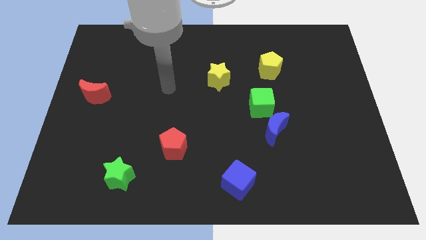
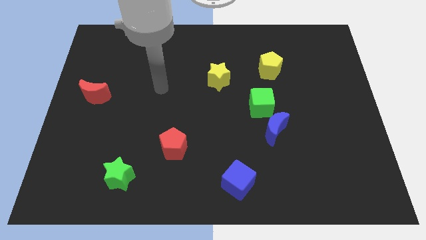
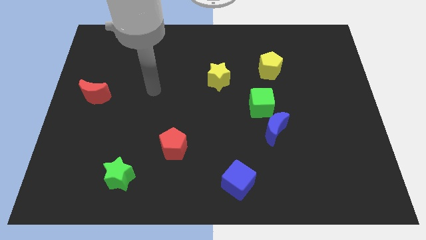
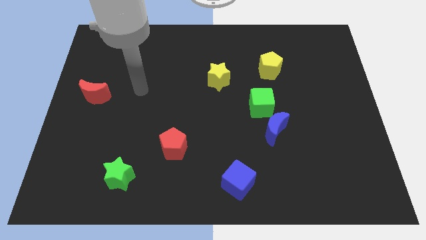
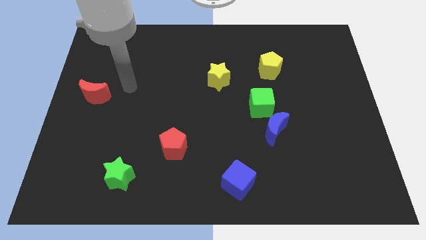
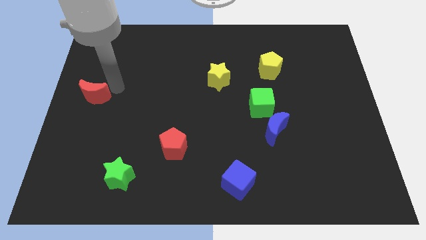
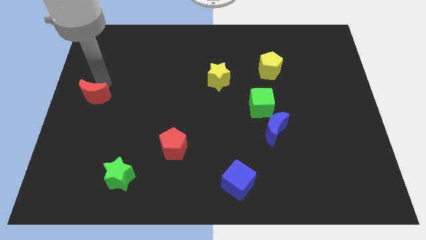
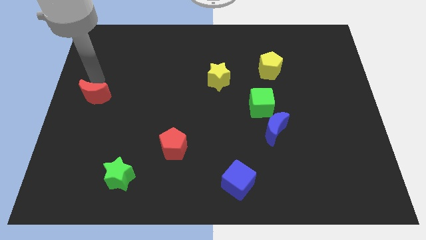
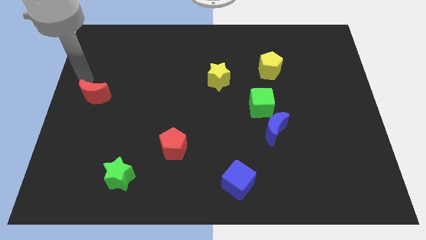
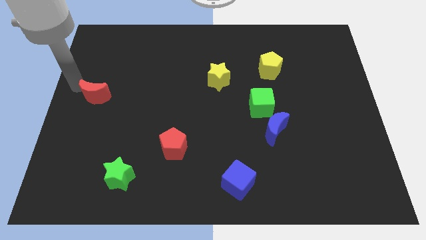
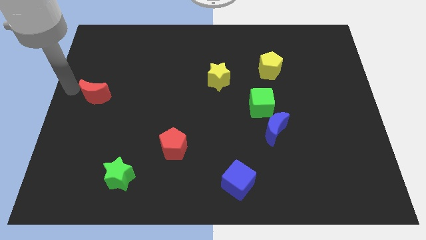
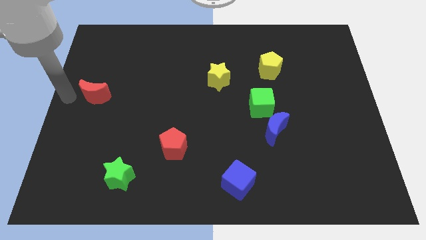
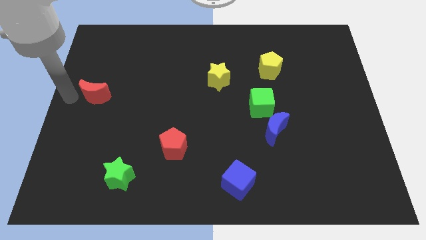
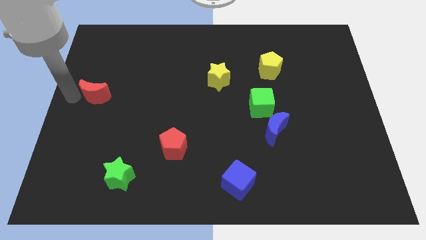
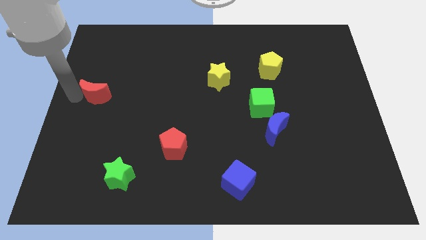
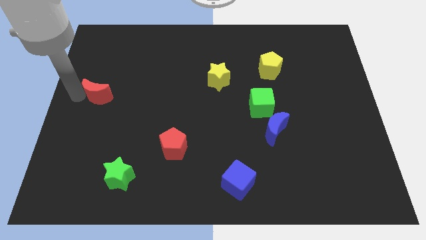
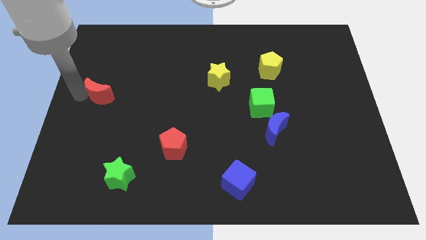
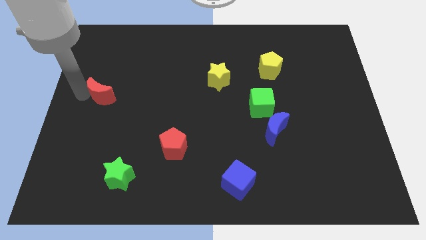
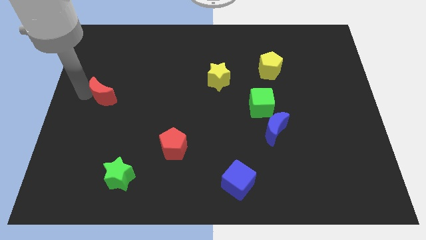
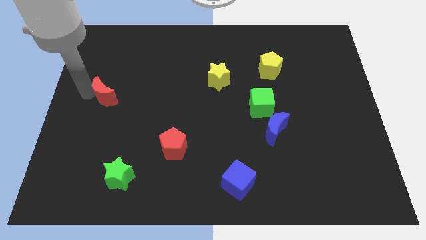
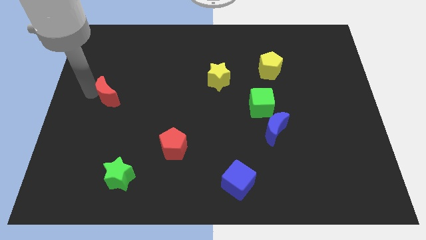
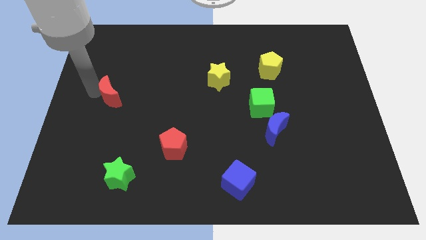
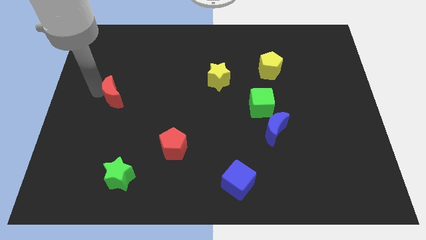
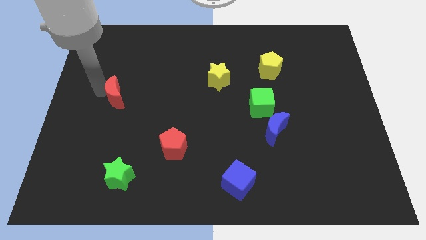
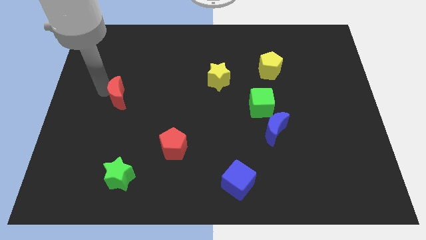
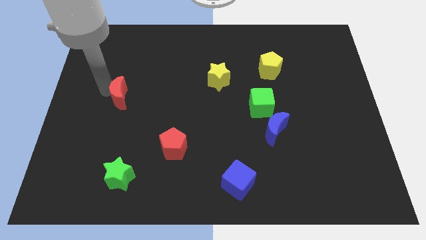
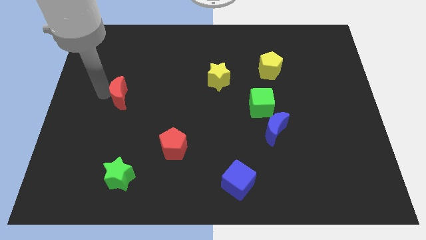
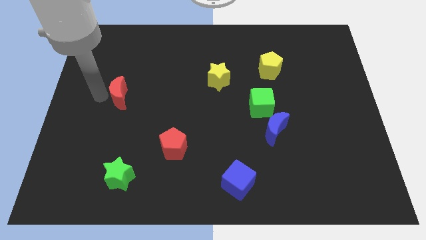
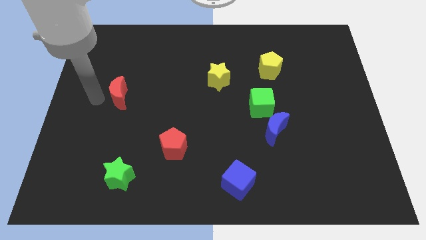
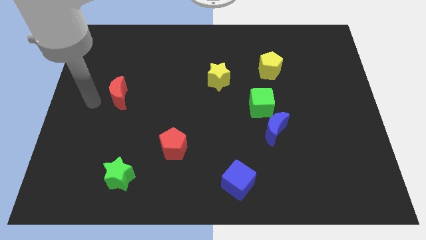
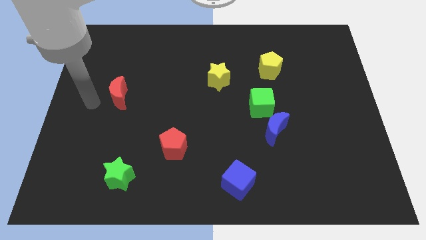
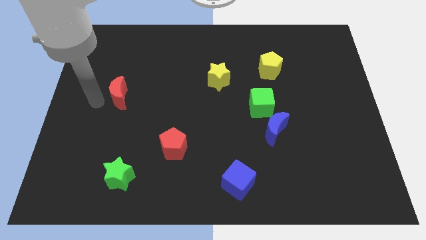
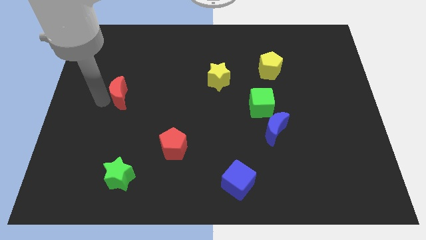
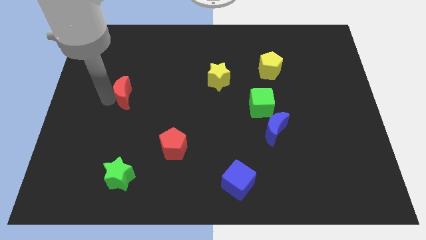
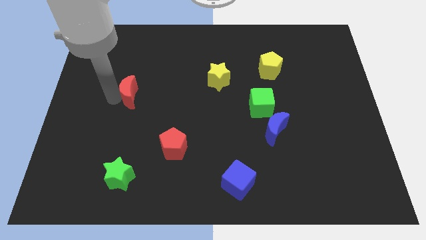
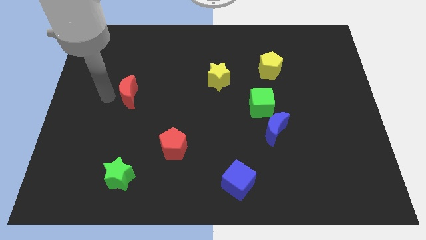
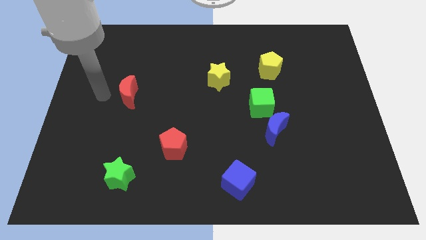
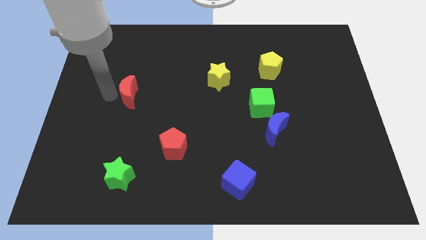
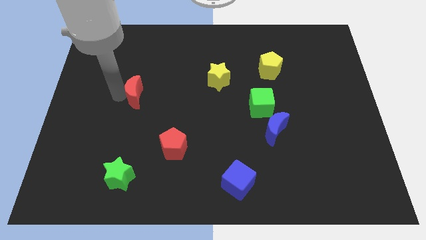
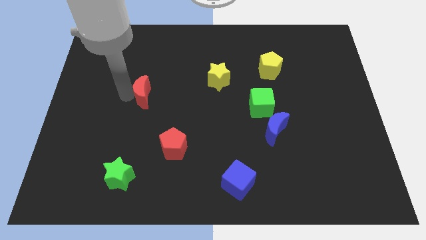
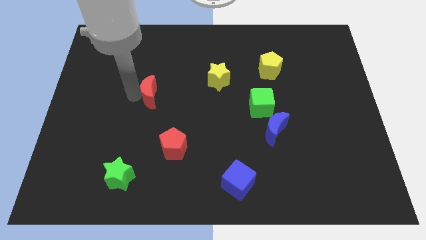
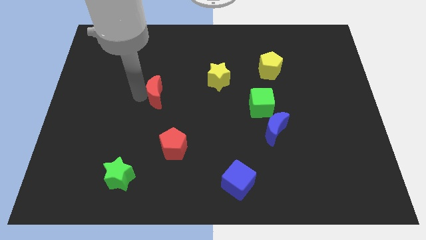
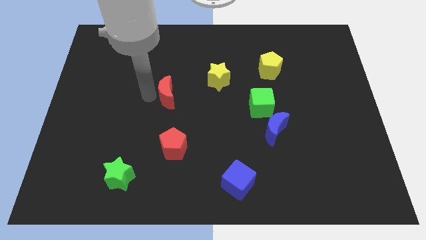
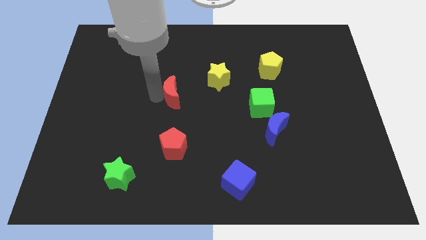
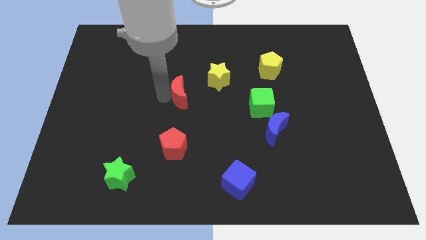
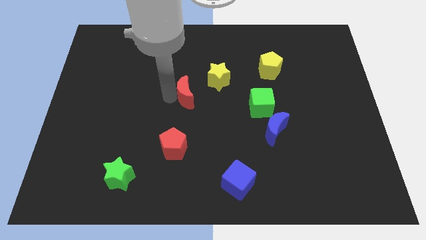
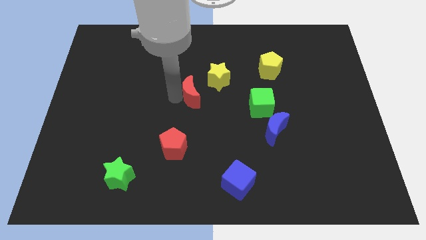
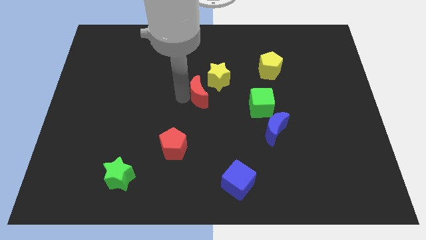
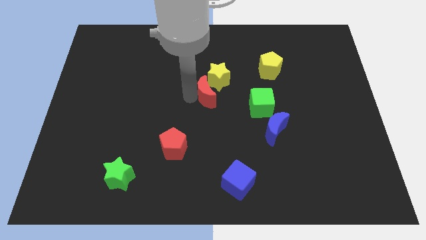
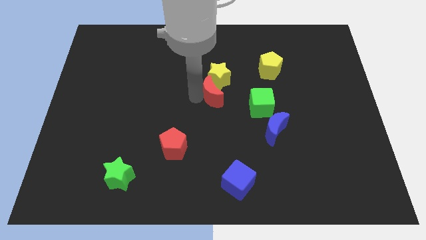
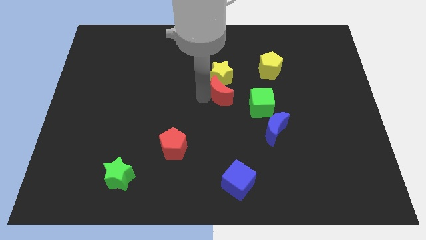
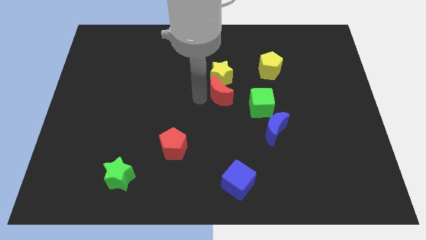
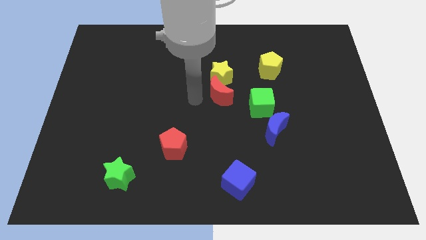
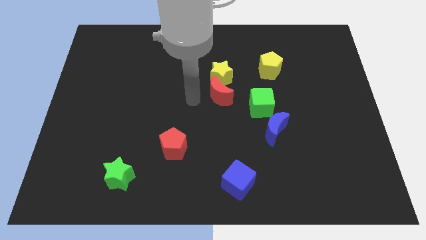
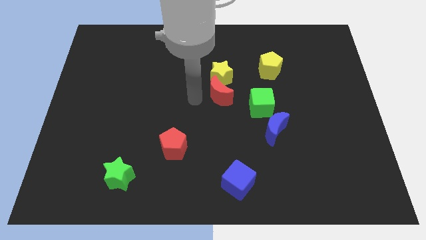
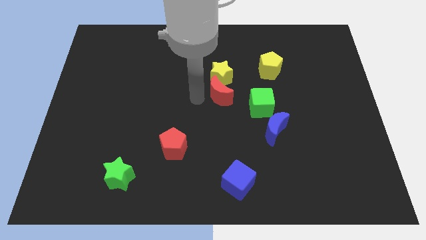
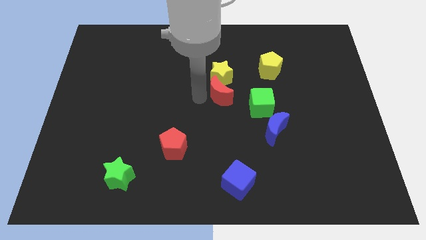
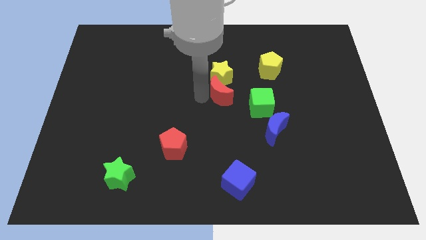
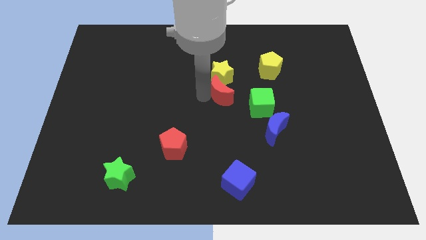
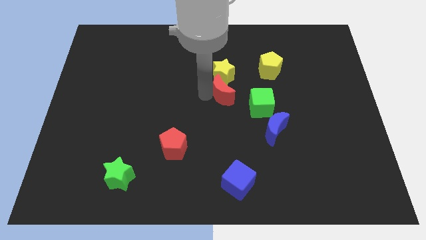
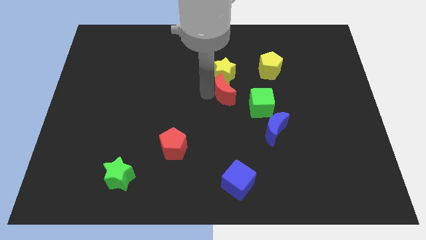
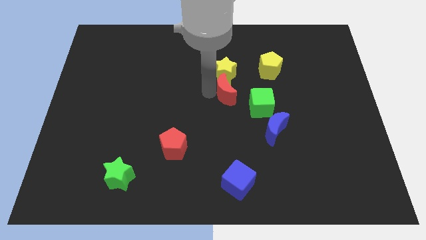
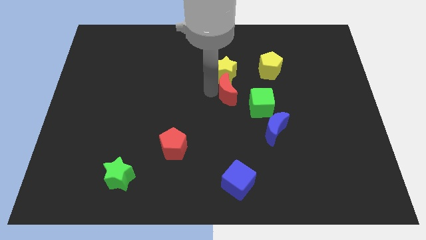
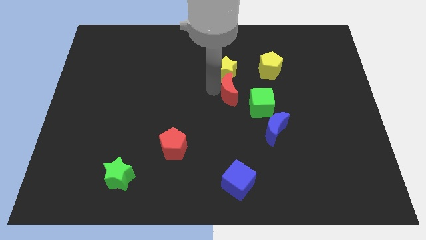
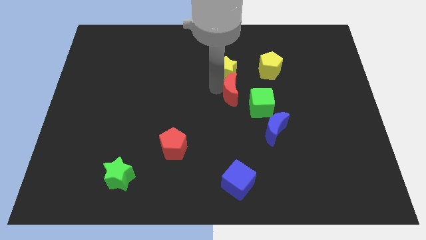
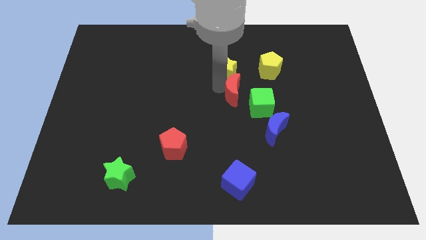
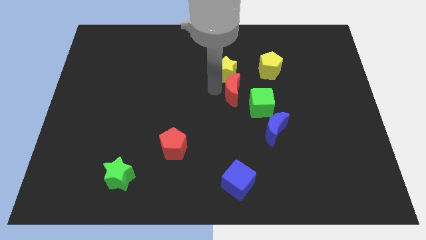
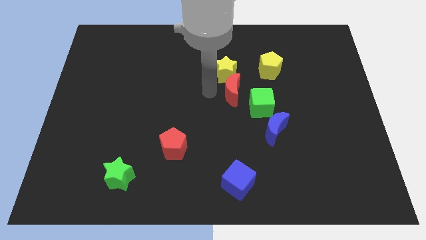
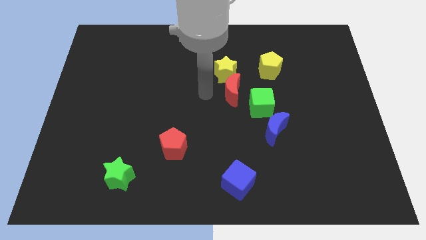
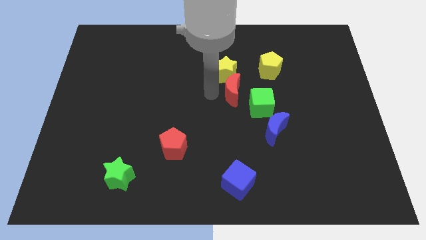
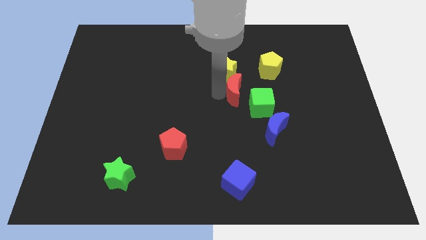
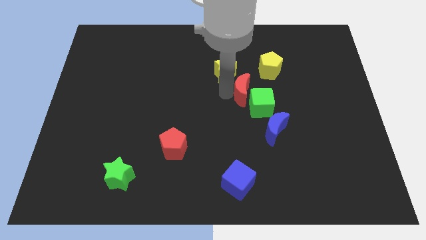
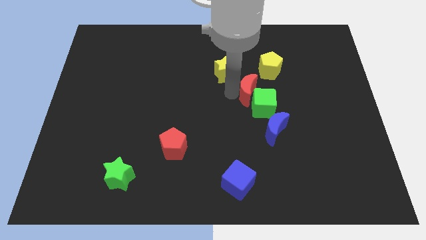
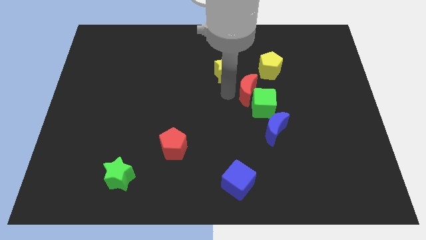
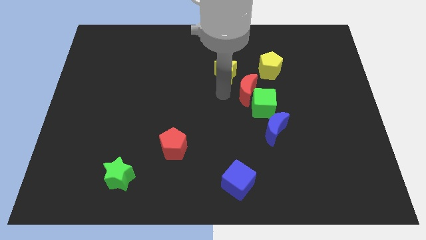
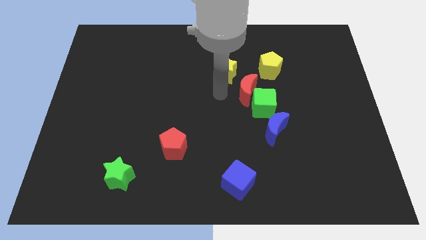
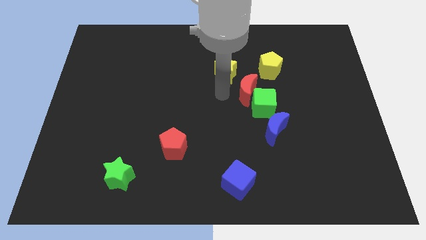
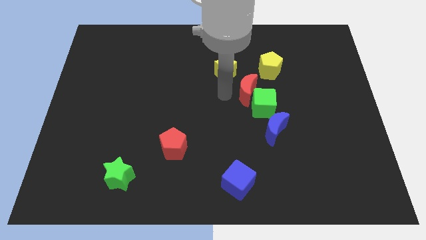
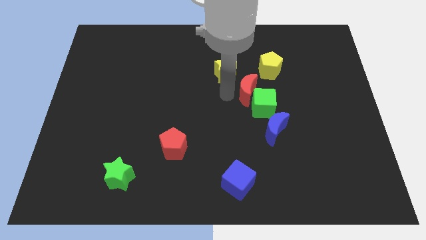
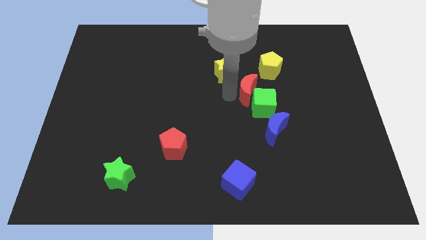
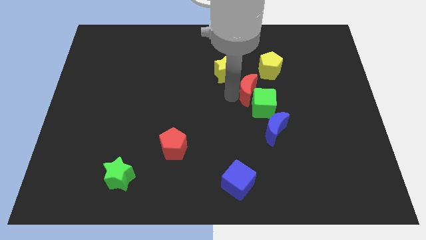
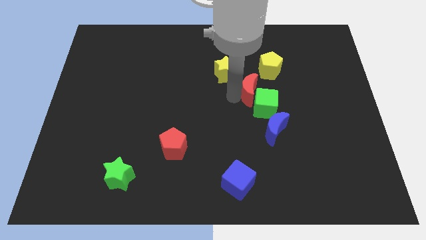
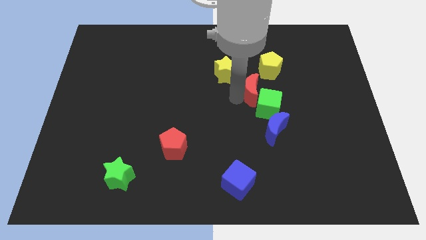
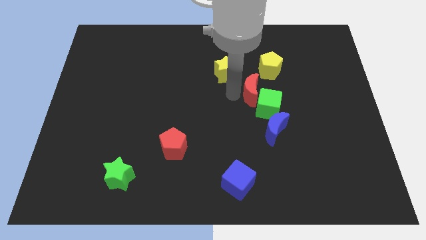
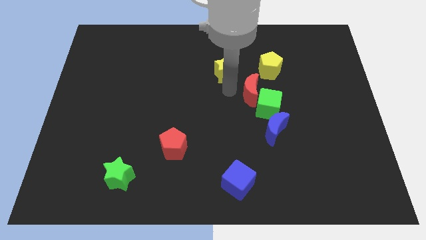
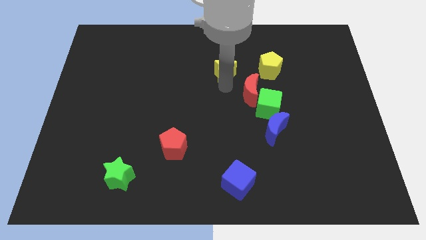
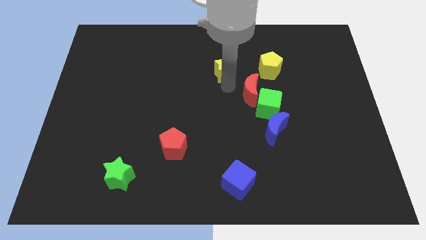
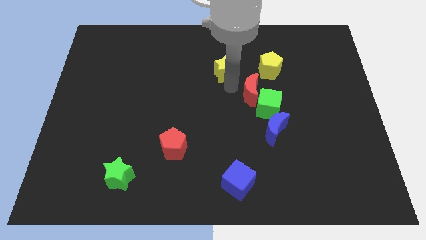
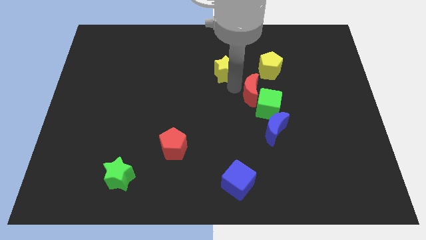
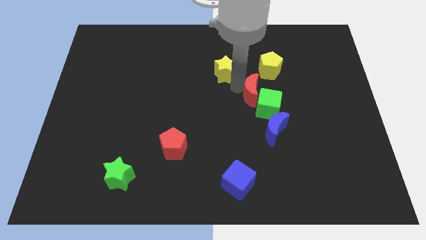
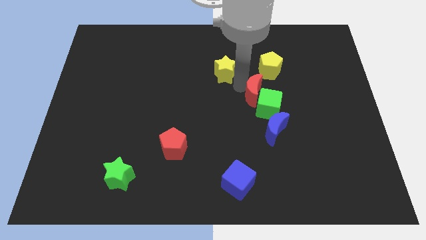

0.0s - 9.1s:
move the red moon to the bottom side of the yellow pentagon
